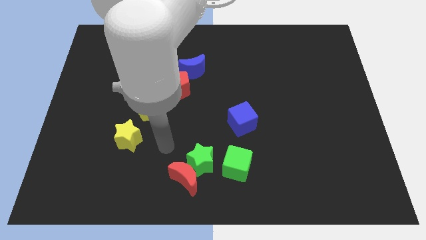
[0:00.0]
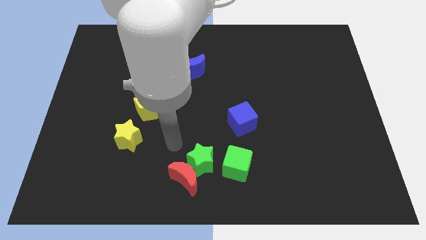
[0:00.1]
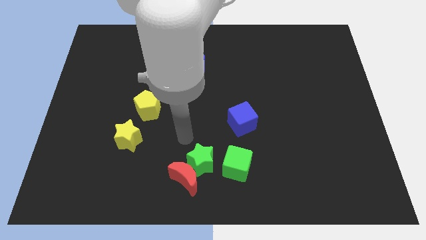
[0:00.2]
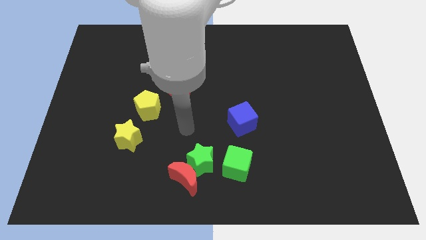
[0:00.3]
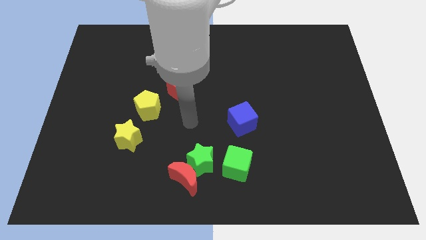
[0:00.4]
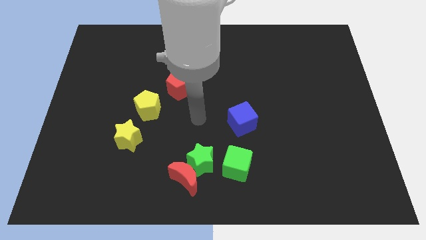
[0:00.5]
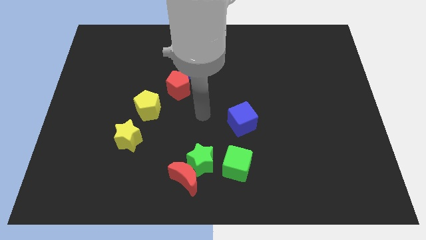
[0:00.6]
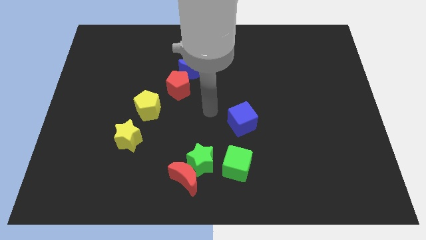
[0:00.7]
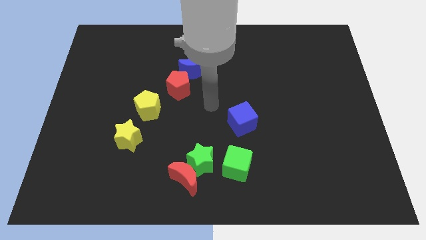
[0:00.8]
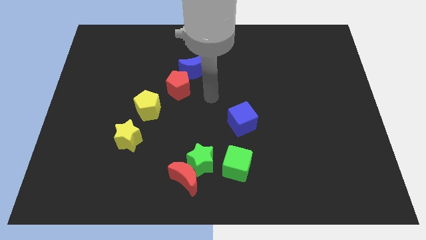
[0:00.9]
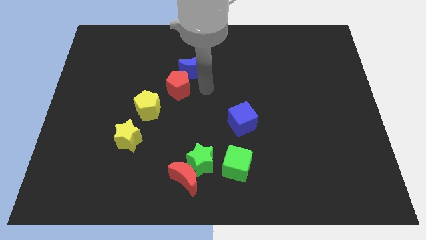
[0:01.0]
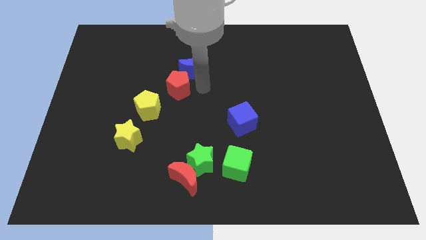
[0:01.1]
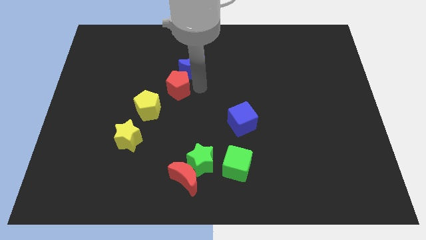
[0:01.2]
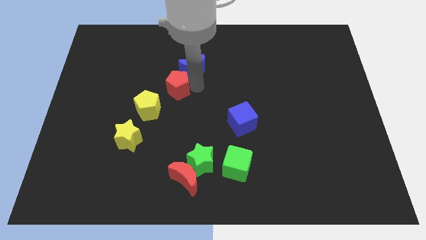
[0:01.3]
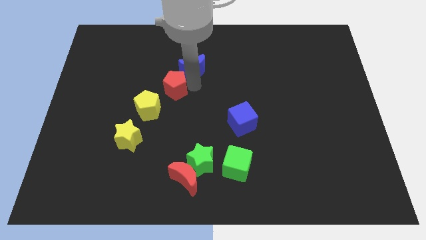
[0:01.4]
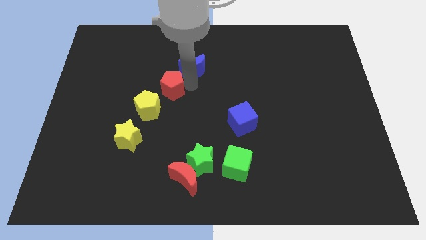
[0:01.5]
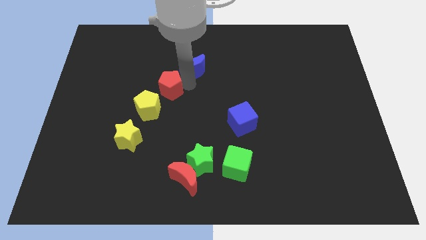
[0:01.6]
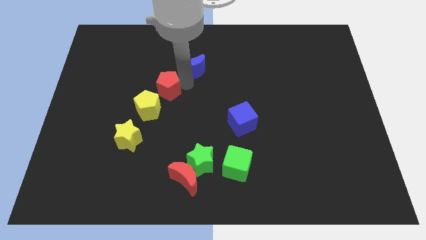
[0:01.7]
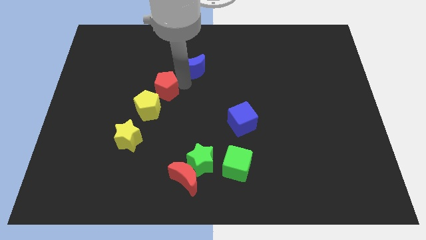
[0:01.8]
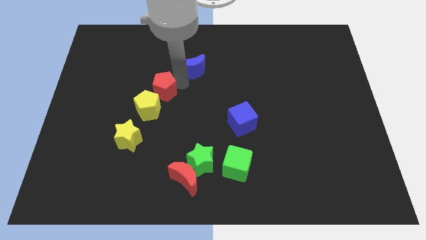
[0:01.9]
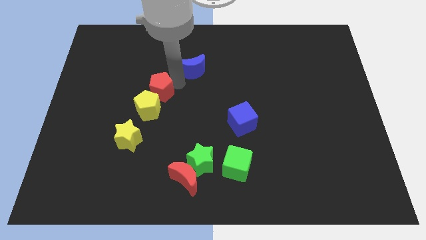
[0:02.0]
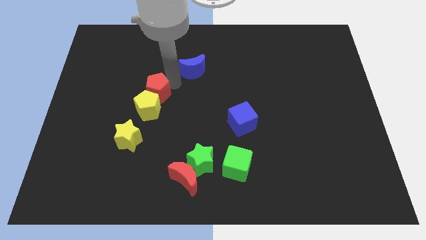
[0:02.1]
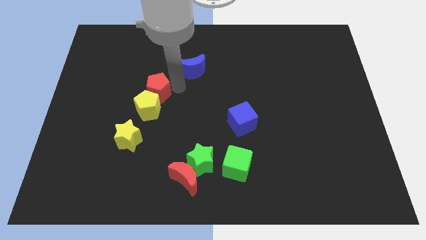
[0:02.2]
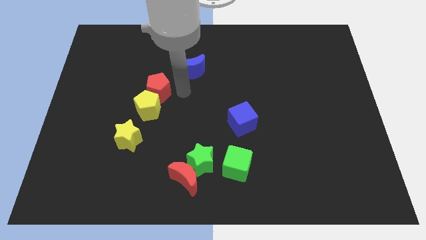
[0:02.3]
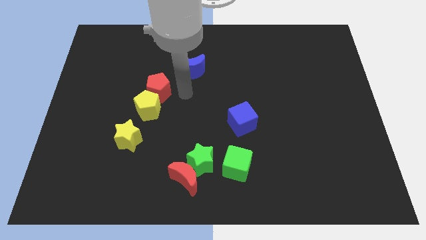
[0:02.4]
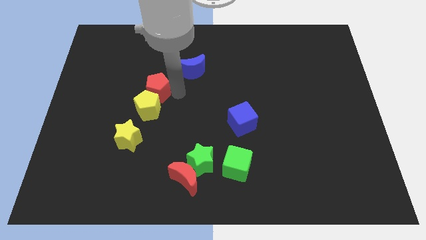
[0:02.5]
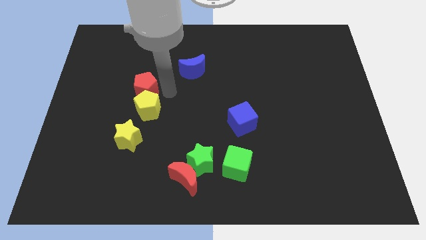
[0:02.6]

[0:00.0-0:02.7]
slightly slide the red pentagon left

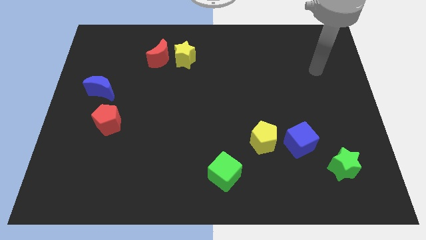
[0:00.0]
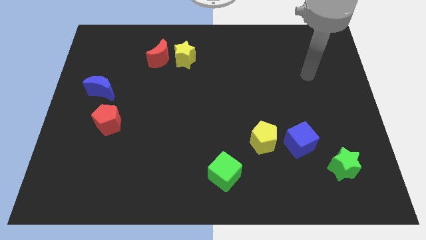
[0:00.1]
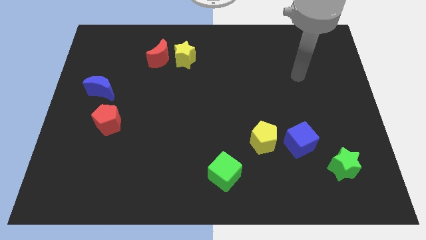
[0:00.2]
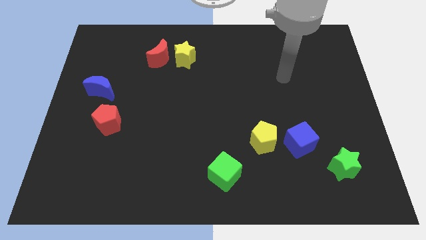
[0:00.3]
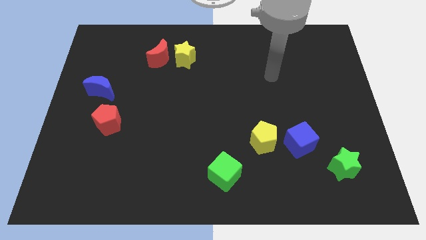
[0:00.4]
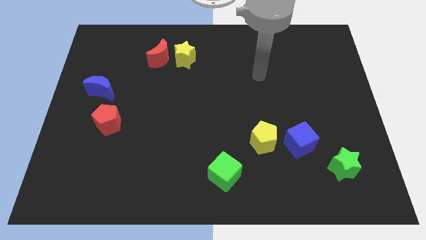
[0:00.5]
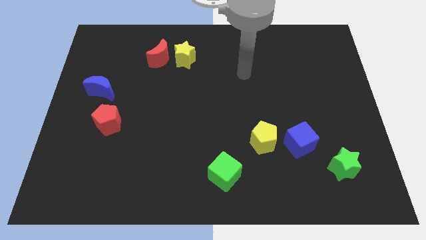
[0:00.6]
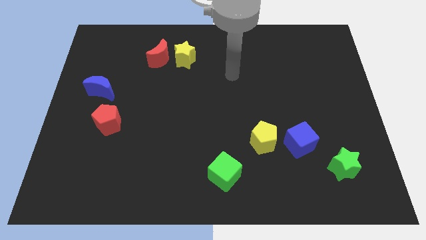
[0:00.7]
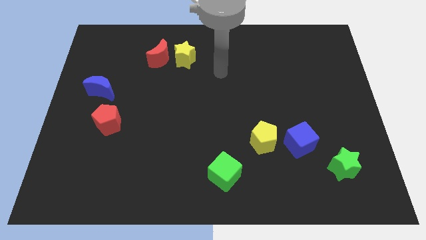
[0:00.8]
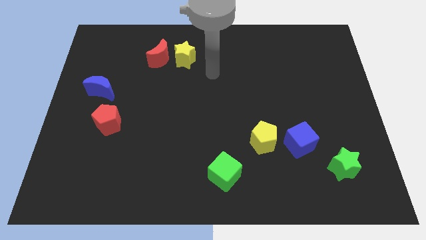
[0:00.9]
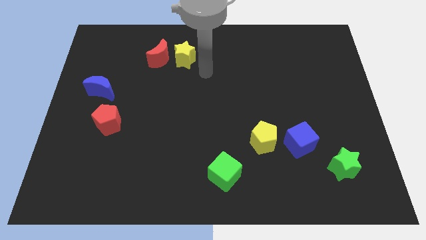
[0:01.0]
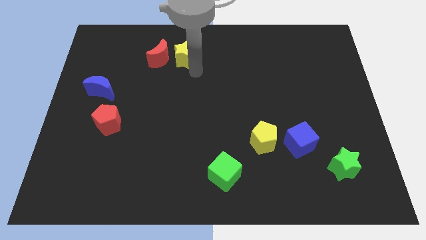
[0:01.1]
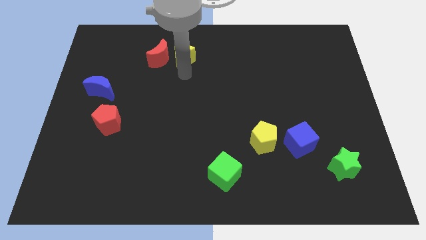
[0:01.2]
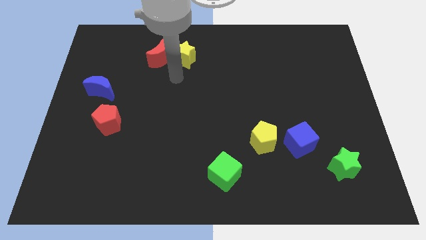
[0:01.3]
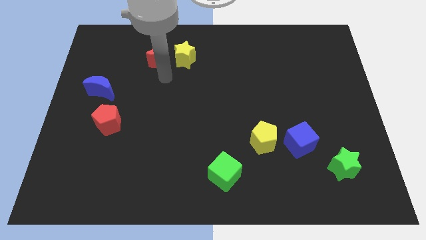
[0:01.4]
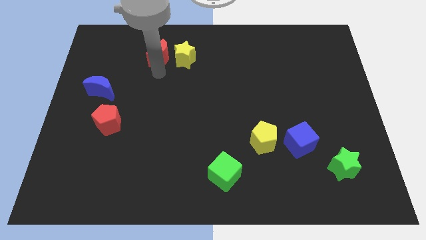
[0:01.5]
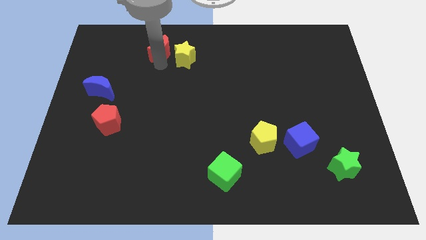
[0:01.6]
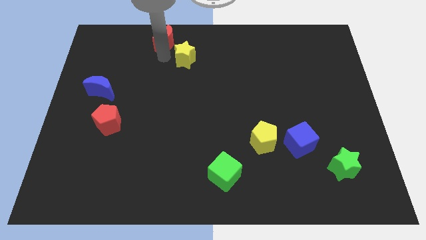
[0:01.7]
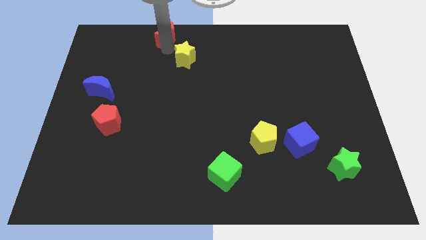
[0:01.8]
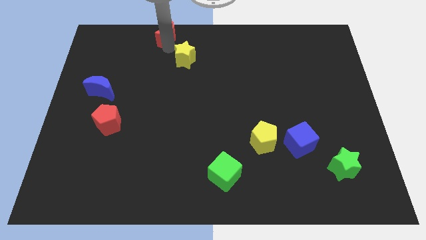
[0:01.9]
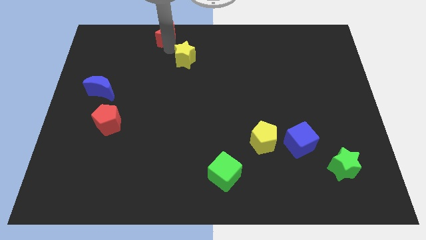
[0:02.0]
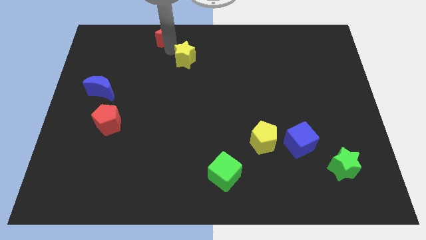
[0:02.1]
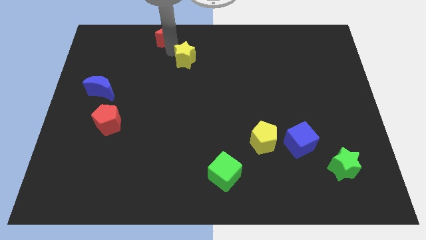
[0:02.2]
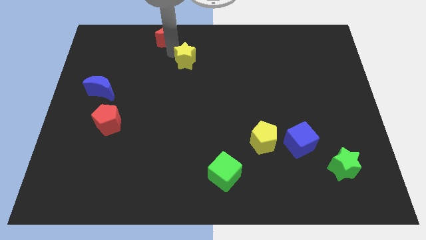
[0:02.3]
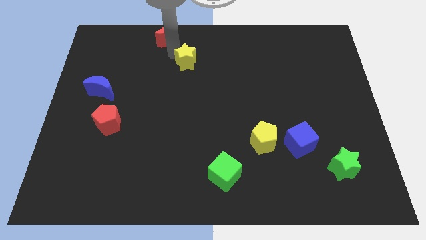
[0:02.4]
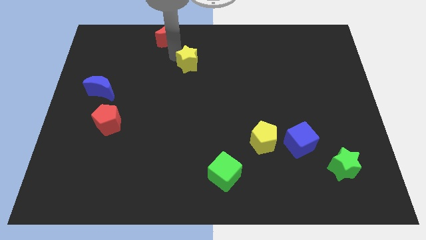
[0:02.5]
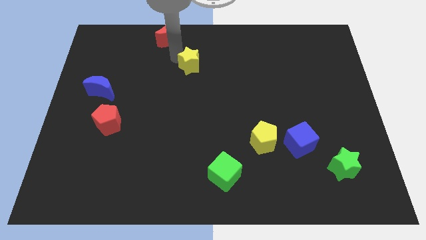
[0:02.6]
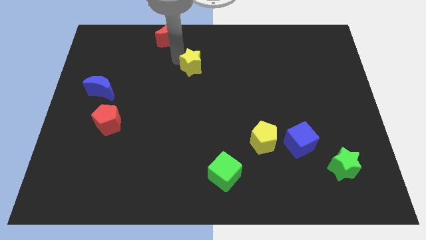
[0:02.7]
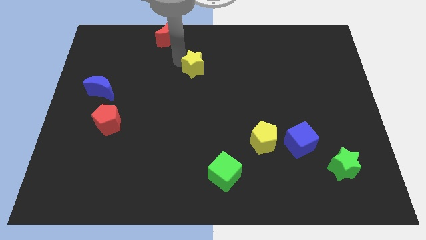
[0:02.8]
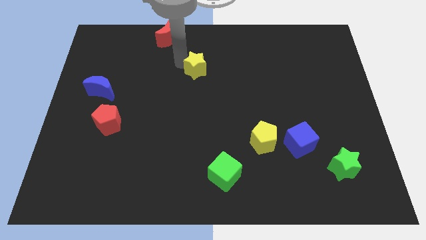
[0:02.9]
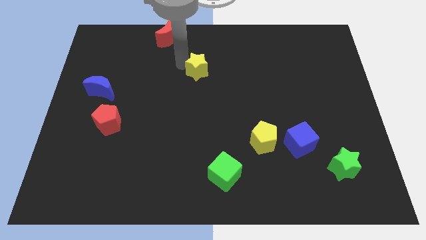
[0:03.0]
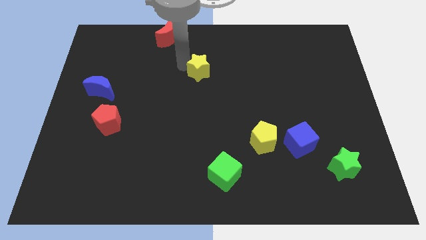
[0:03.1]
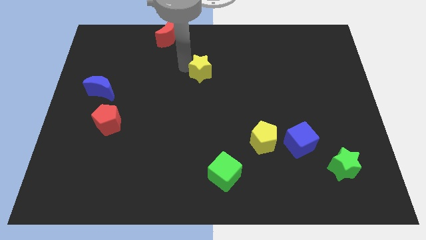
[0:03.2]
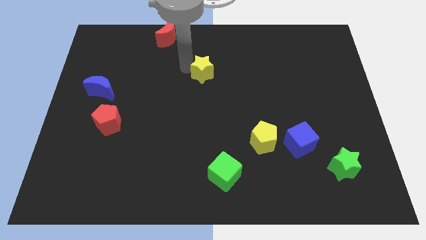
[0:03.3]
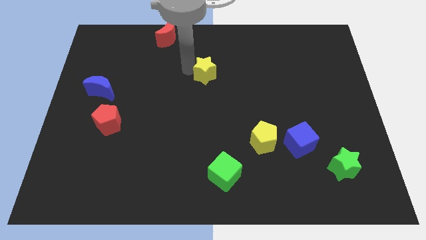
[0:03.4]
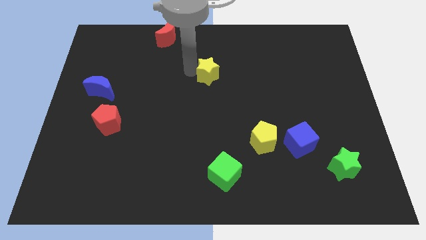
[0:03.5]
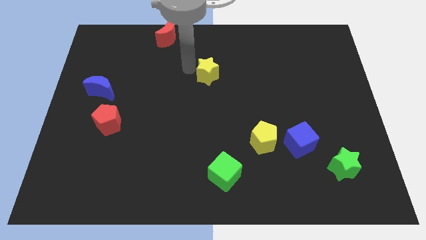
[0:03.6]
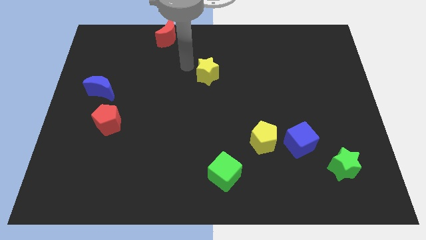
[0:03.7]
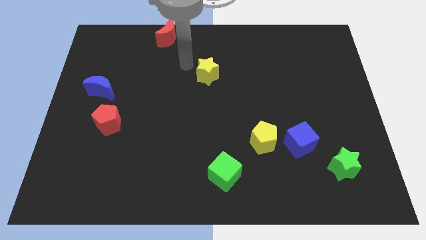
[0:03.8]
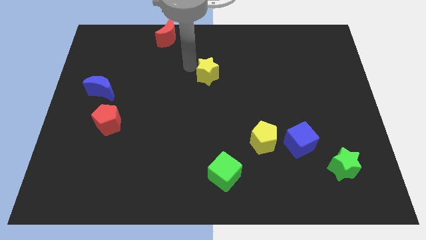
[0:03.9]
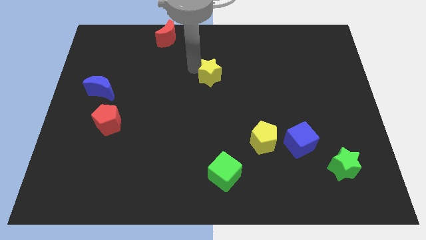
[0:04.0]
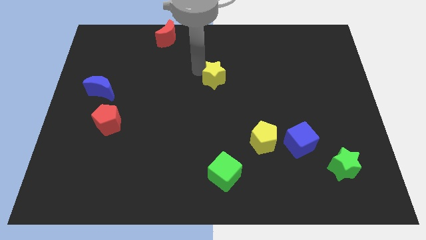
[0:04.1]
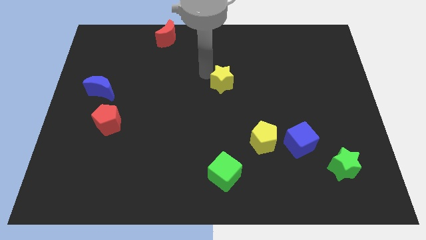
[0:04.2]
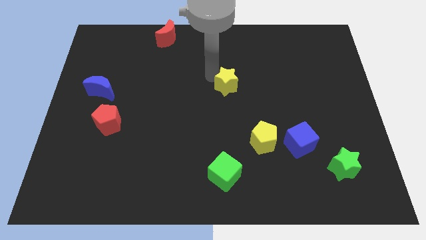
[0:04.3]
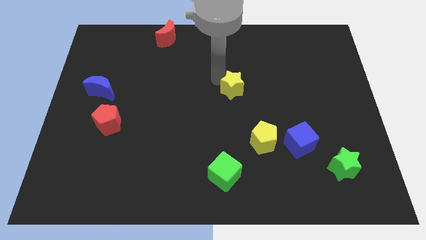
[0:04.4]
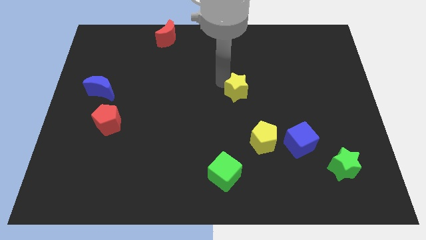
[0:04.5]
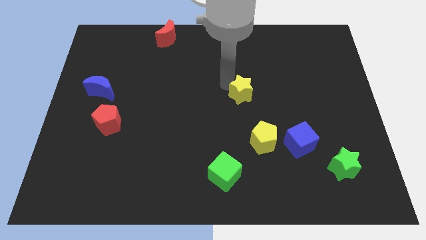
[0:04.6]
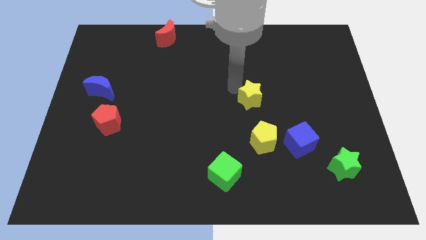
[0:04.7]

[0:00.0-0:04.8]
move the yellow star downwards and right diagonally

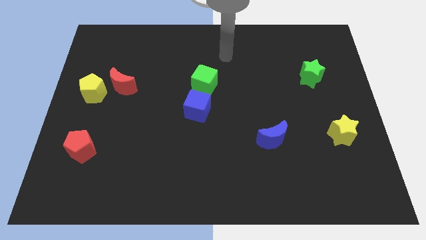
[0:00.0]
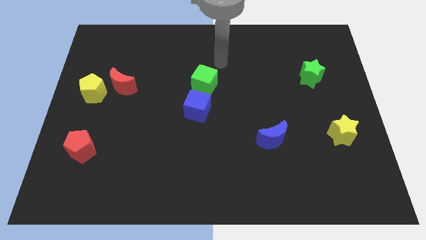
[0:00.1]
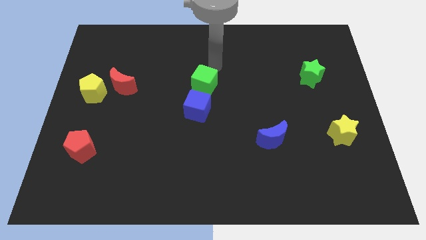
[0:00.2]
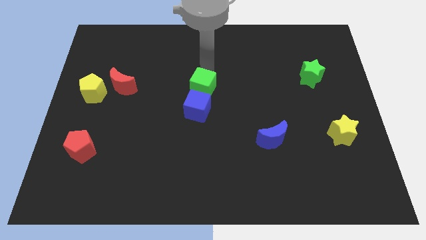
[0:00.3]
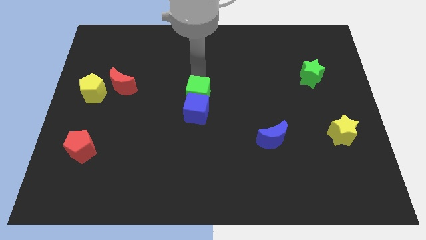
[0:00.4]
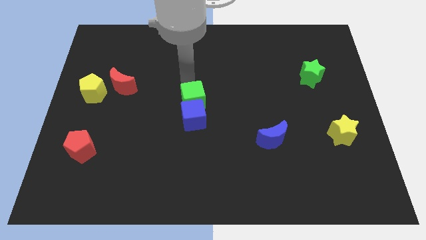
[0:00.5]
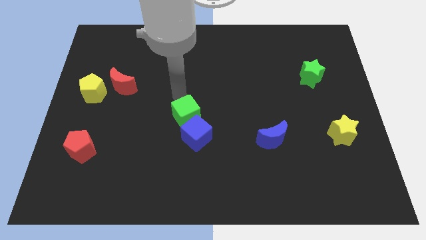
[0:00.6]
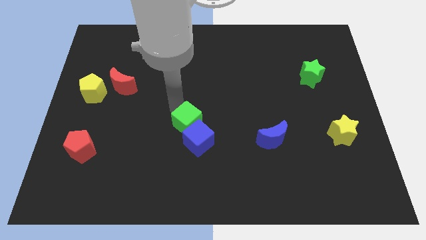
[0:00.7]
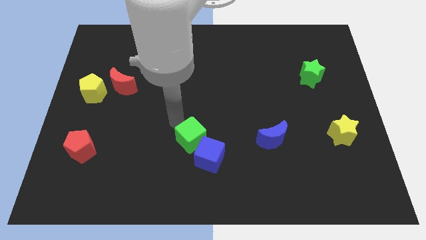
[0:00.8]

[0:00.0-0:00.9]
move the blue cube diagonally downwards and right slightly
